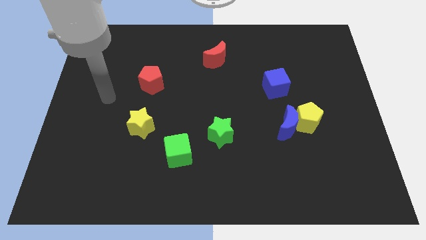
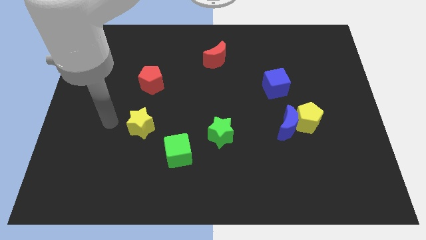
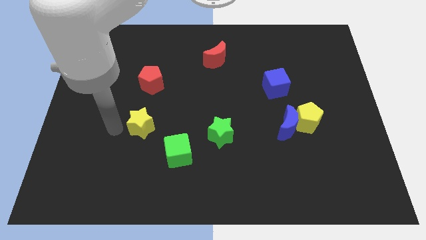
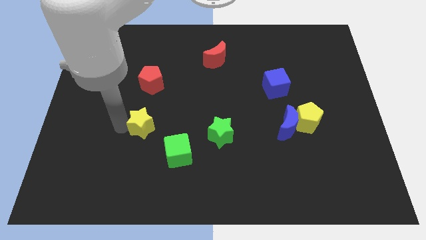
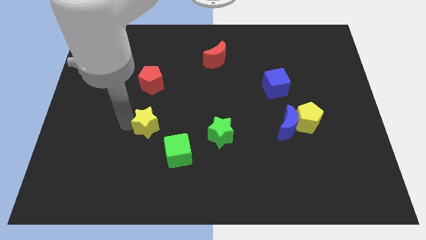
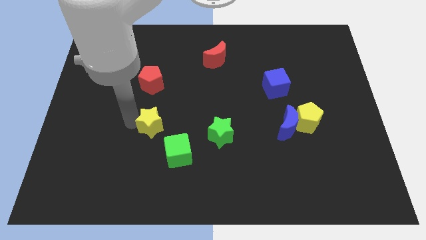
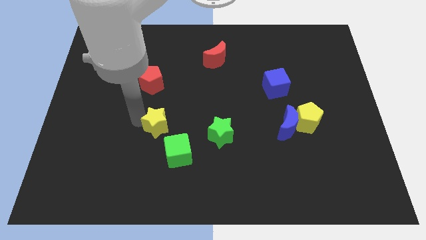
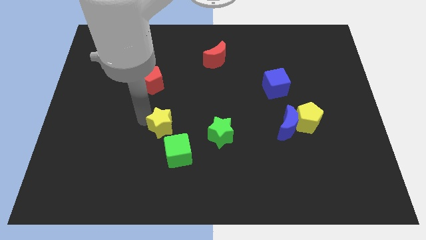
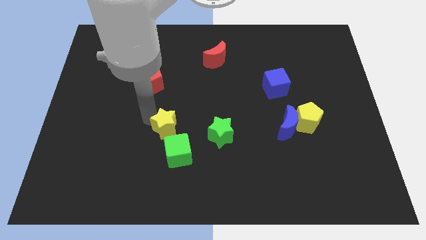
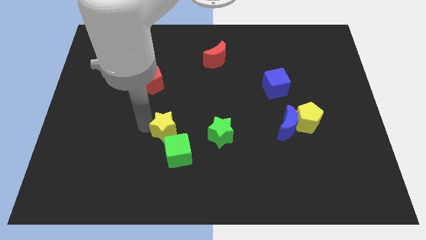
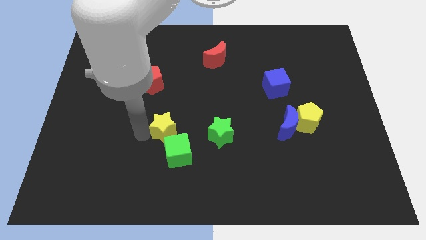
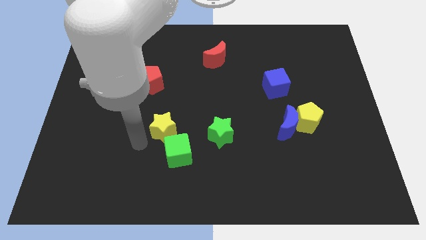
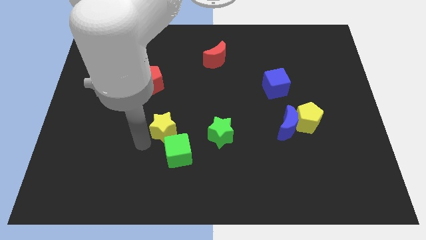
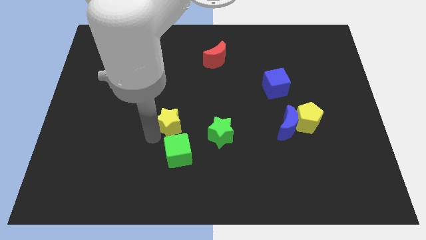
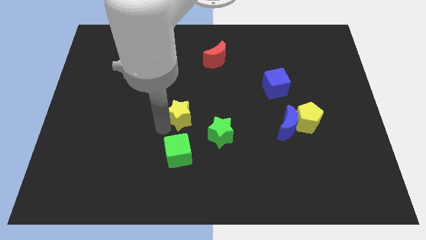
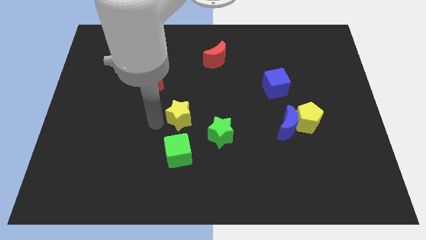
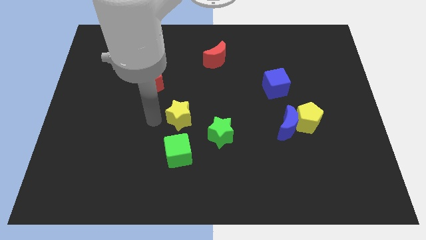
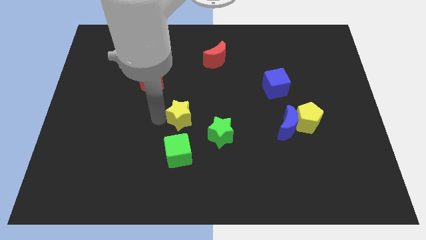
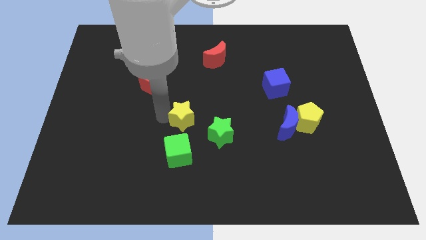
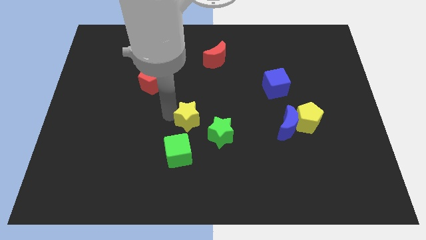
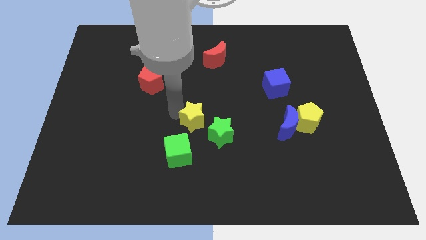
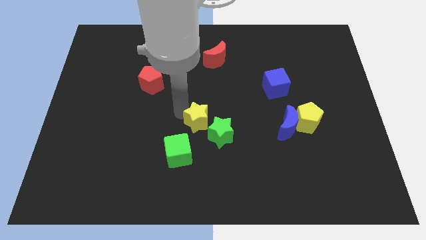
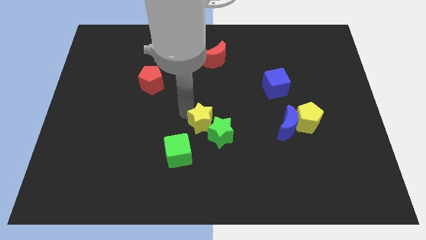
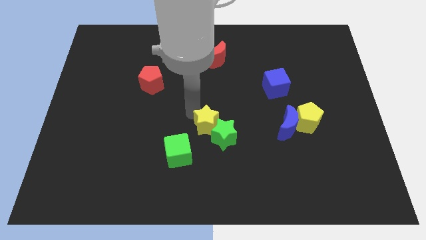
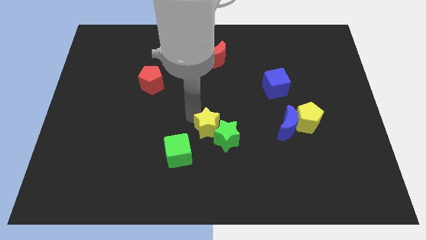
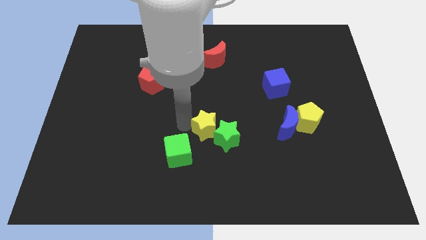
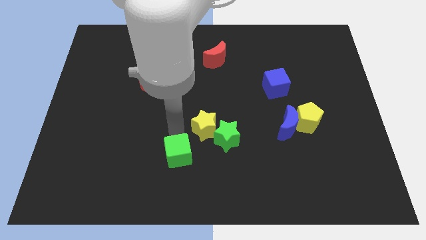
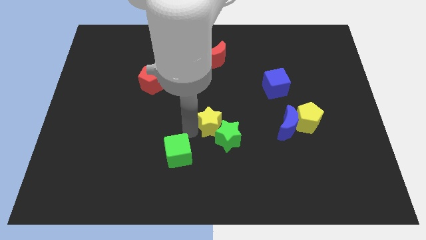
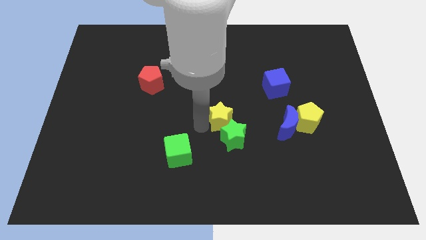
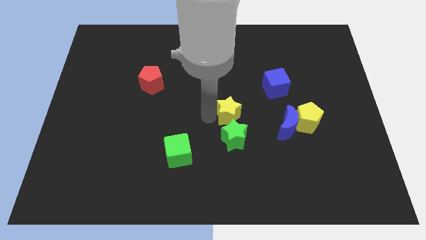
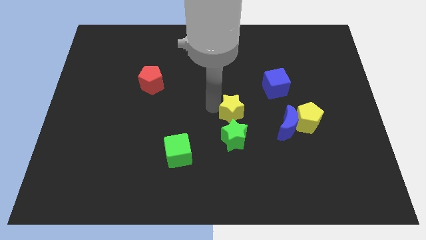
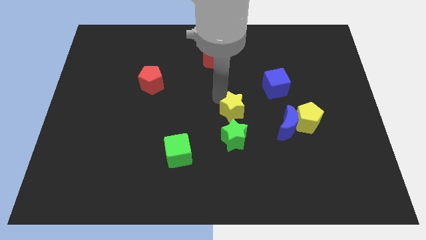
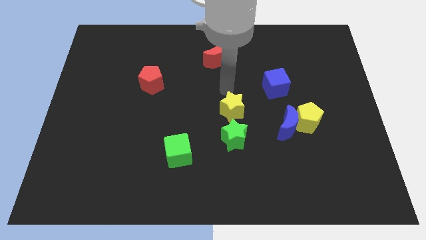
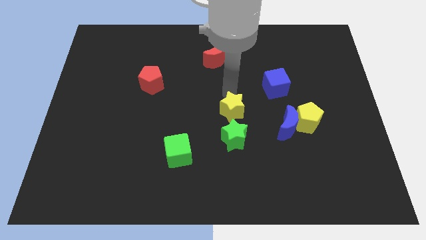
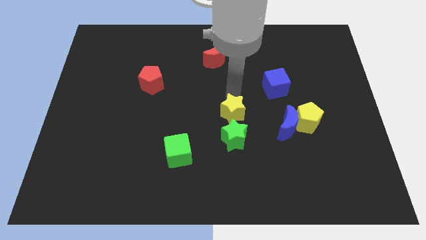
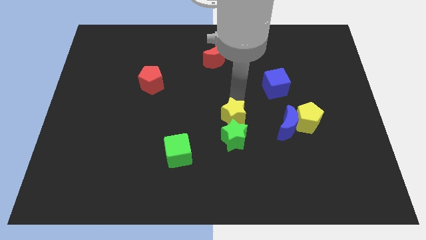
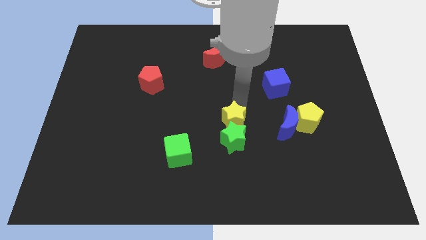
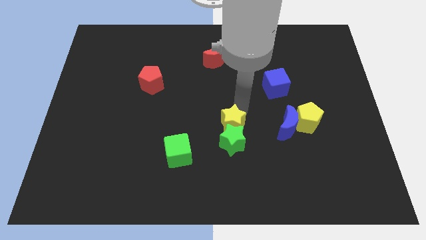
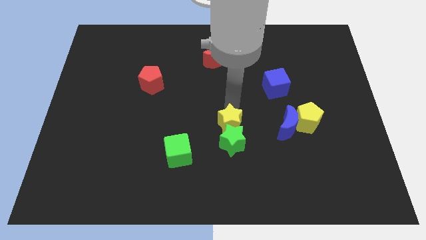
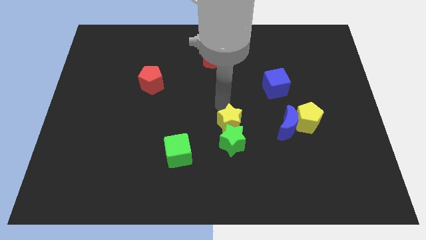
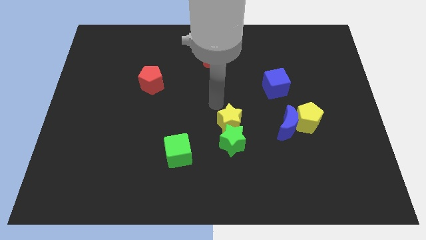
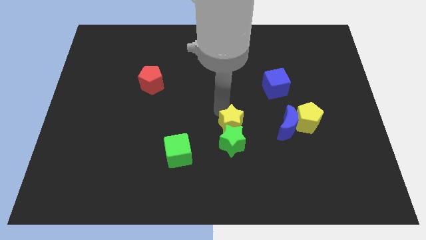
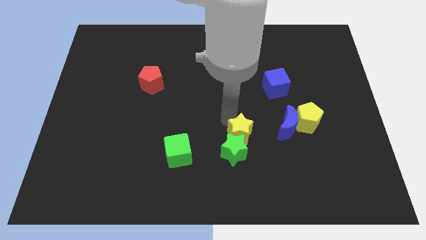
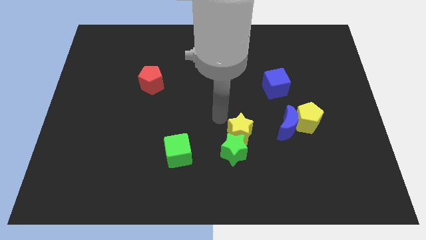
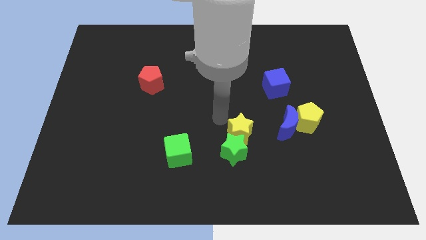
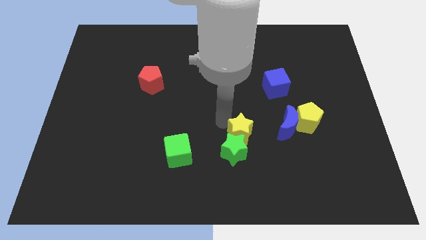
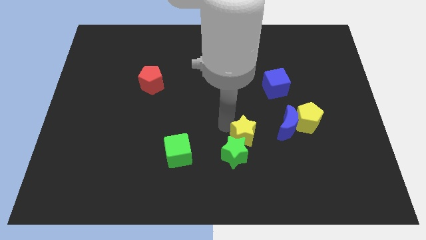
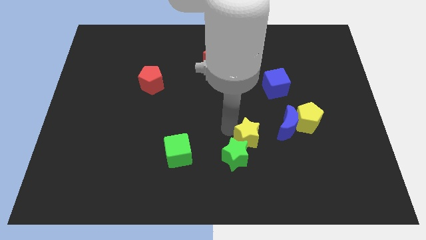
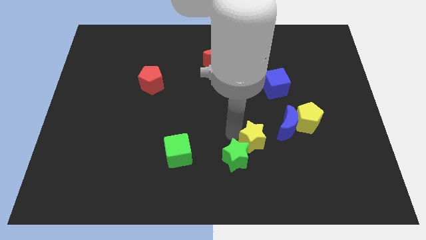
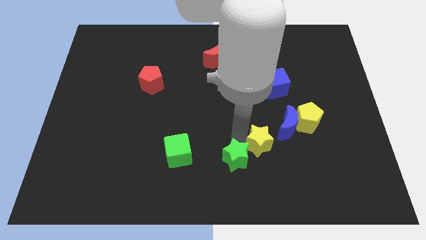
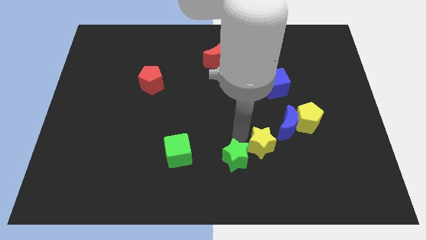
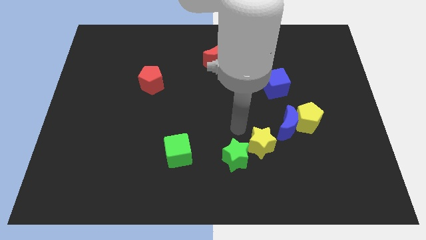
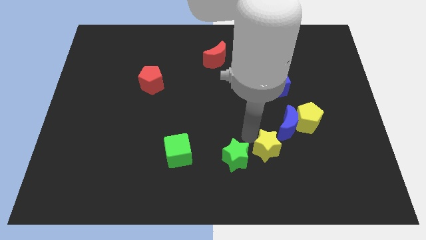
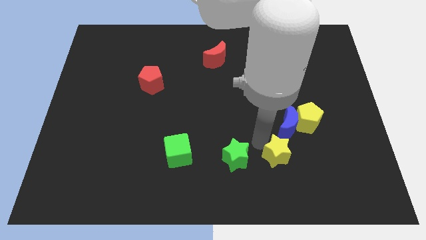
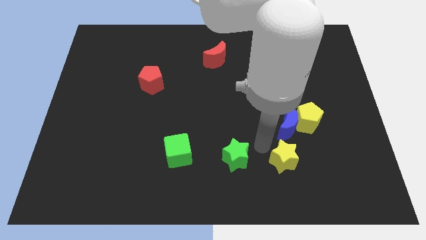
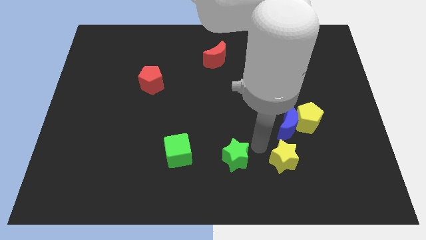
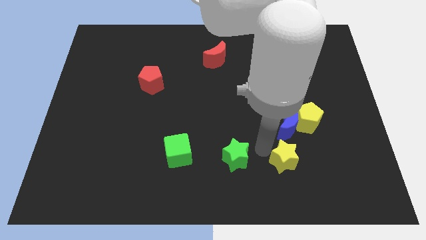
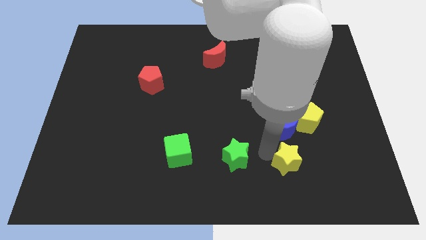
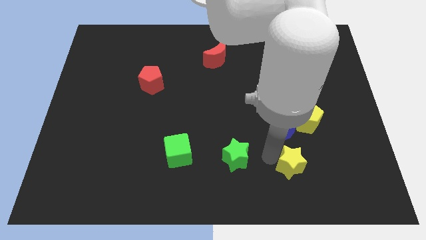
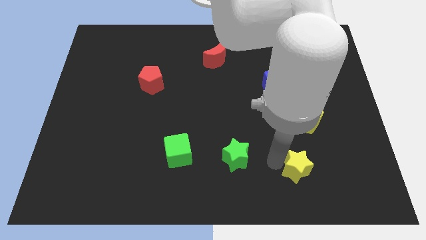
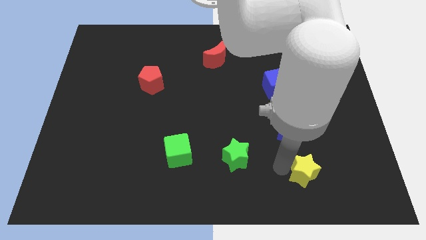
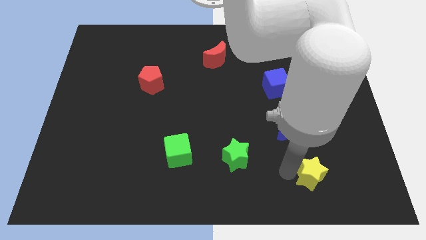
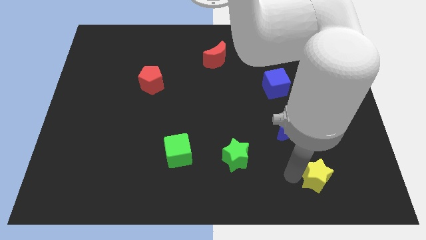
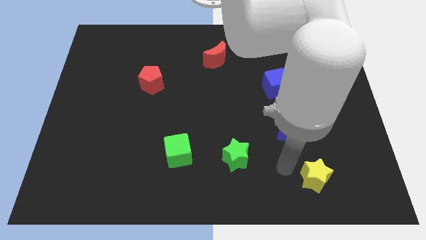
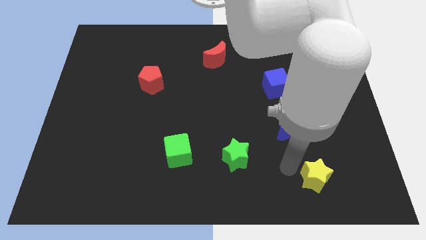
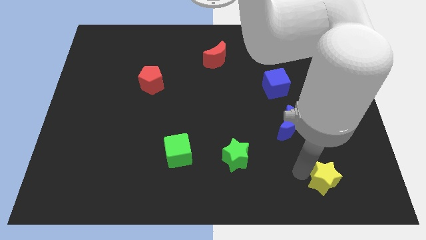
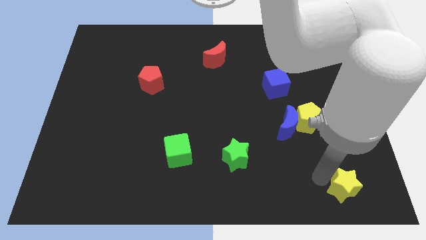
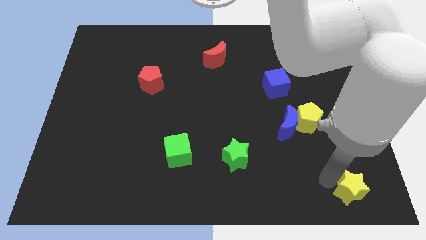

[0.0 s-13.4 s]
put the yellow star to the bottom right of the board
